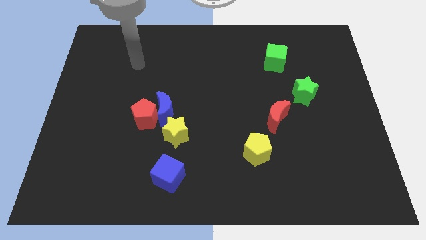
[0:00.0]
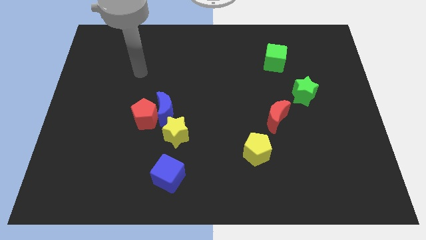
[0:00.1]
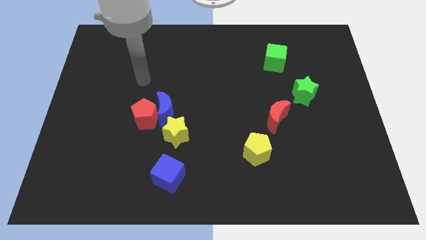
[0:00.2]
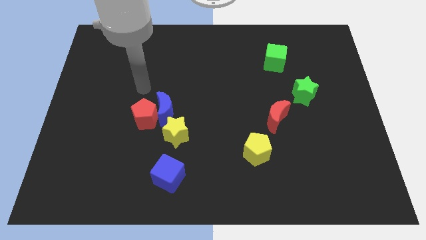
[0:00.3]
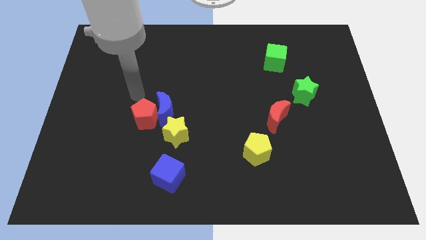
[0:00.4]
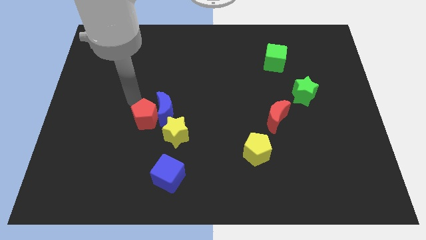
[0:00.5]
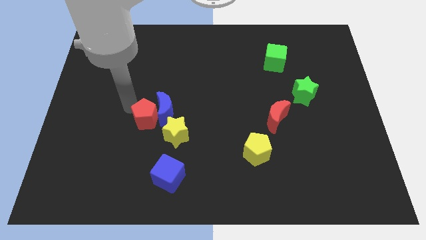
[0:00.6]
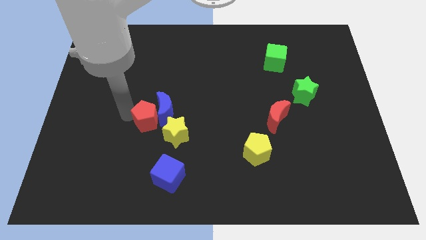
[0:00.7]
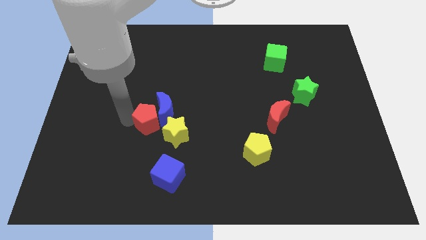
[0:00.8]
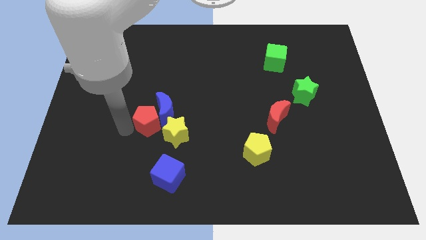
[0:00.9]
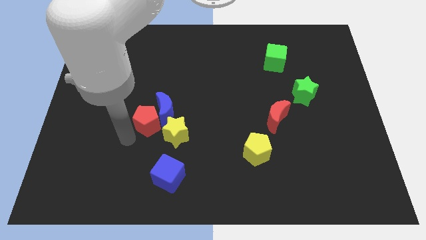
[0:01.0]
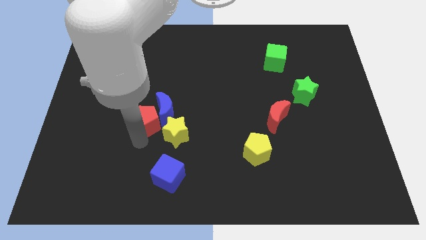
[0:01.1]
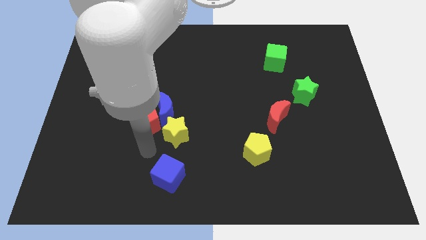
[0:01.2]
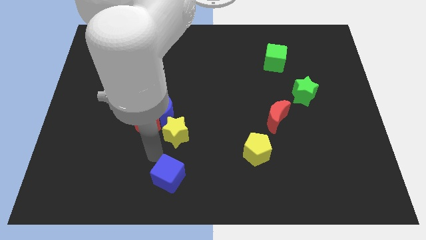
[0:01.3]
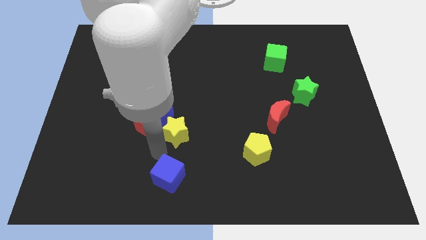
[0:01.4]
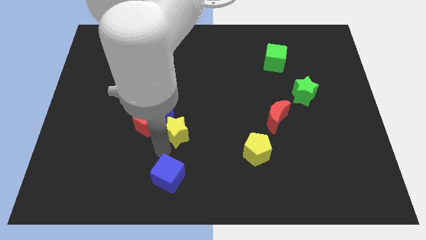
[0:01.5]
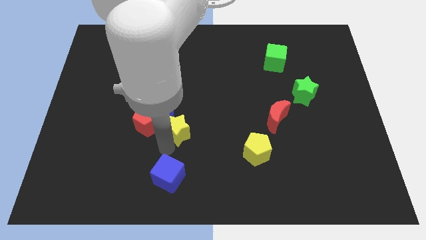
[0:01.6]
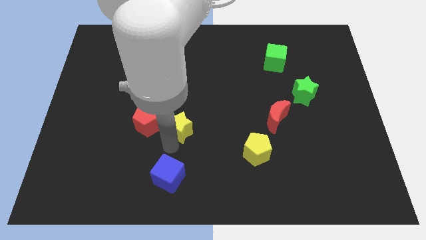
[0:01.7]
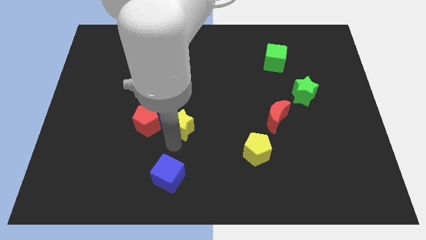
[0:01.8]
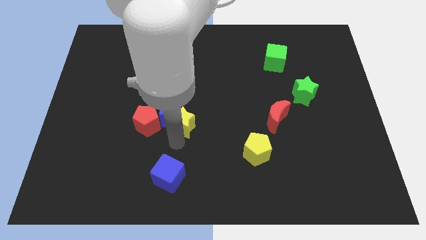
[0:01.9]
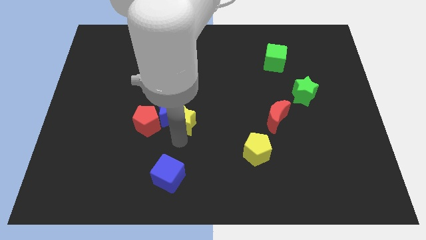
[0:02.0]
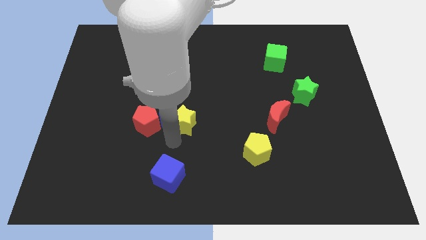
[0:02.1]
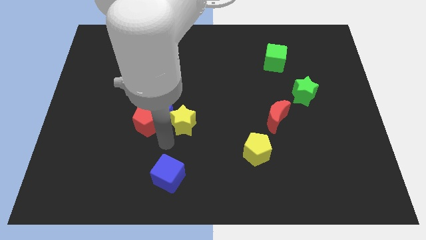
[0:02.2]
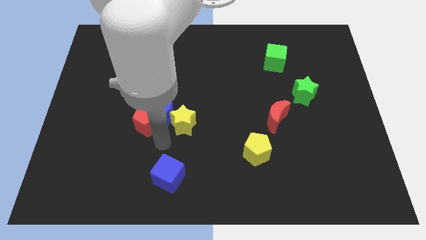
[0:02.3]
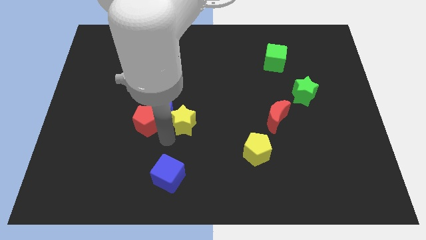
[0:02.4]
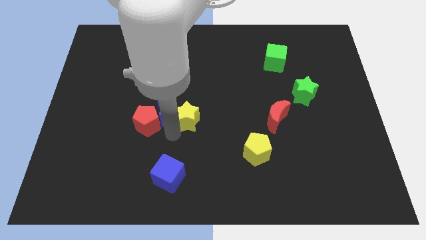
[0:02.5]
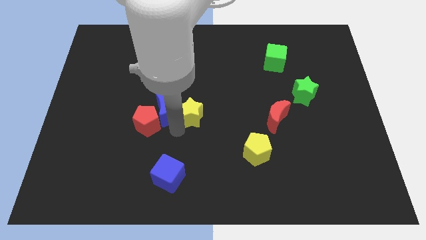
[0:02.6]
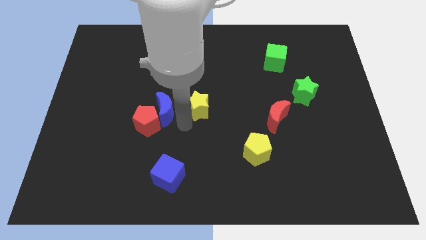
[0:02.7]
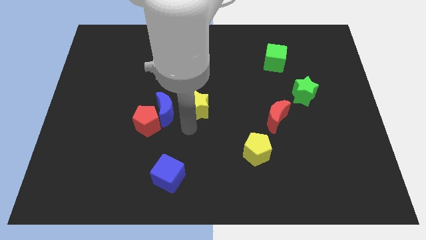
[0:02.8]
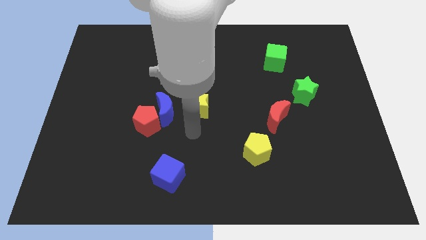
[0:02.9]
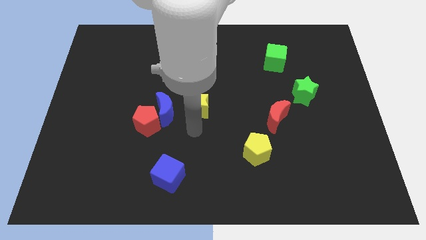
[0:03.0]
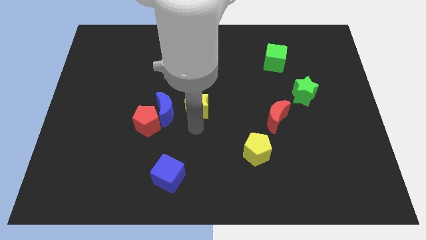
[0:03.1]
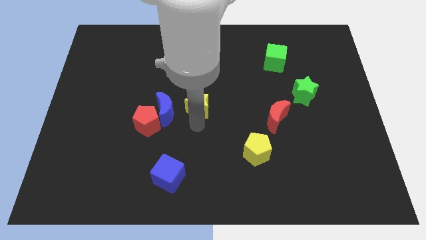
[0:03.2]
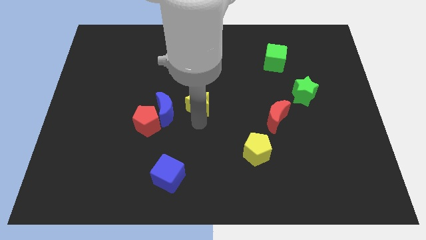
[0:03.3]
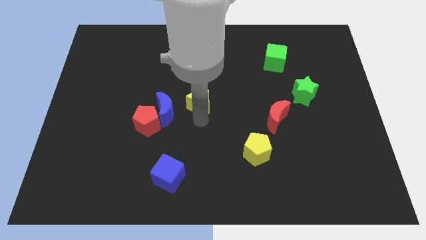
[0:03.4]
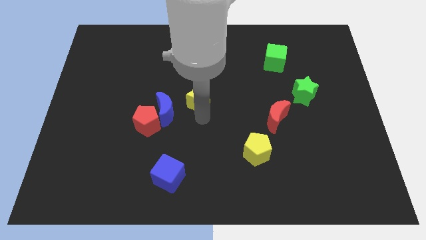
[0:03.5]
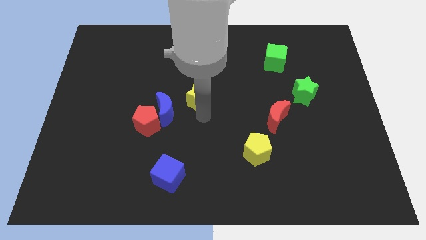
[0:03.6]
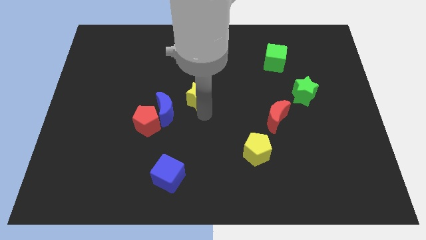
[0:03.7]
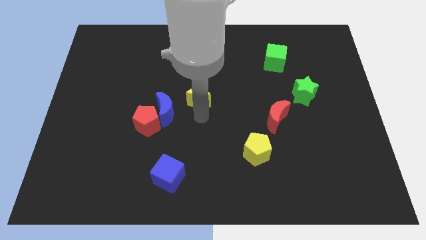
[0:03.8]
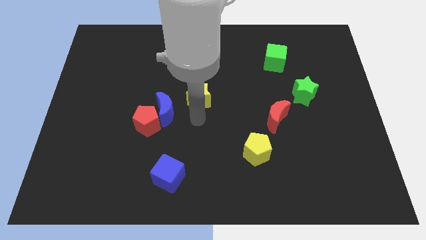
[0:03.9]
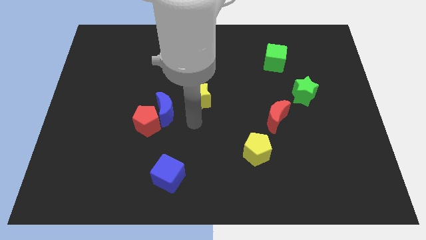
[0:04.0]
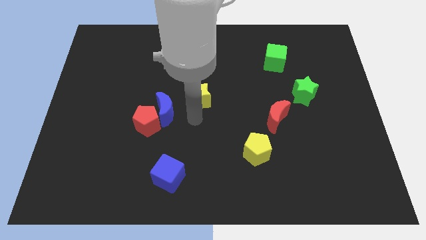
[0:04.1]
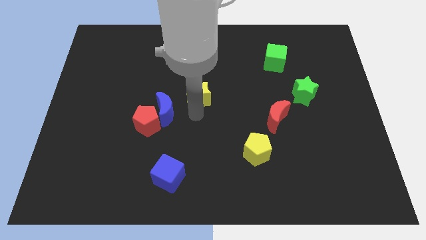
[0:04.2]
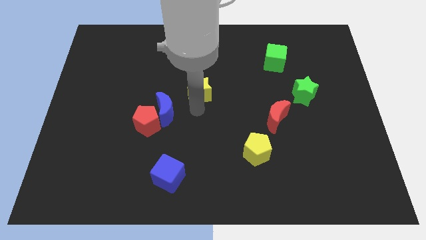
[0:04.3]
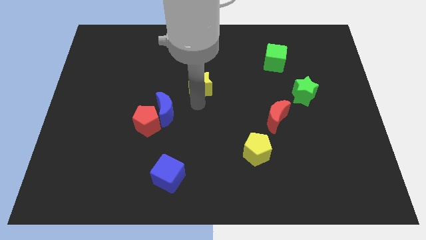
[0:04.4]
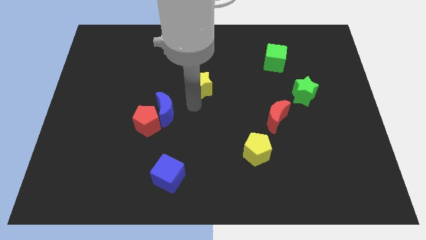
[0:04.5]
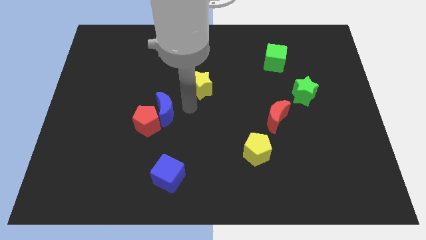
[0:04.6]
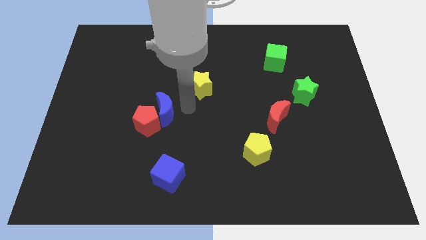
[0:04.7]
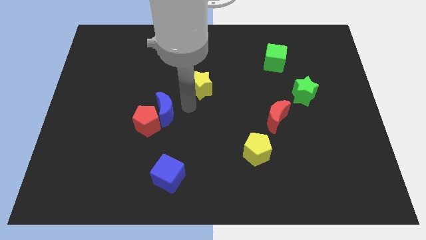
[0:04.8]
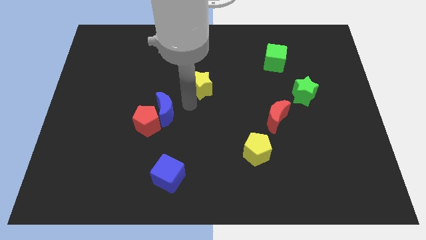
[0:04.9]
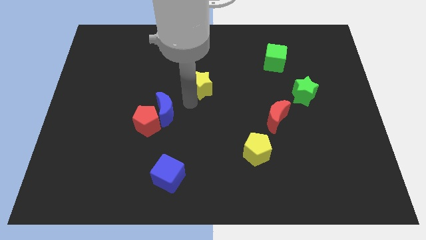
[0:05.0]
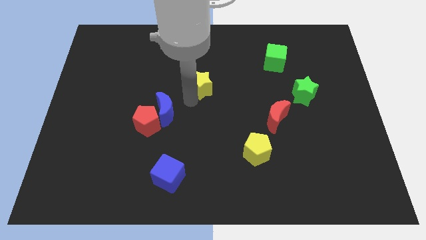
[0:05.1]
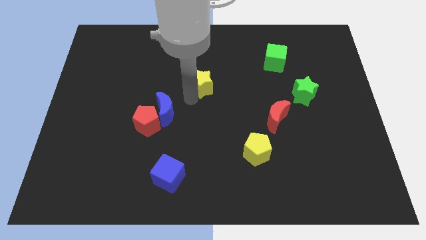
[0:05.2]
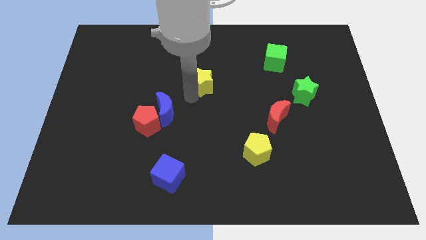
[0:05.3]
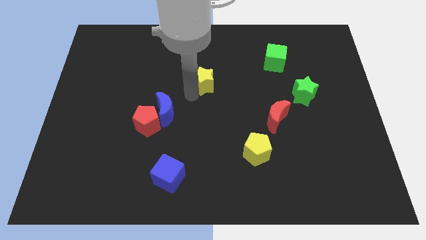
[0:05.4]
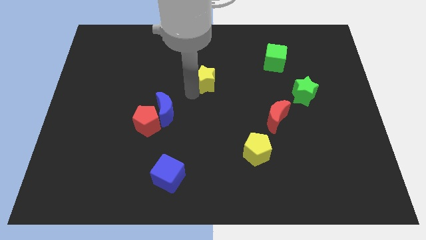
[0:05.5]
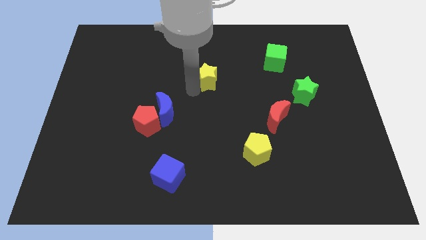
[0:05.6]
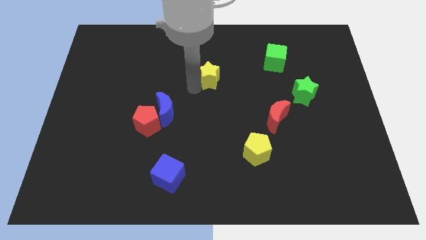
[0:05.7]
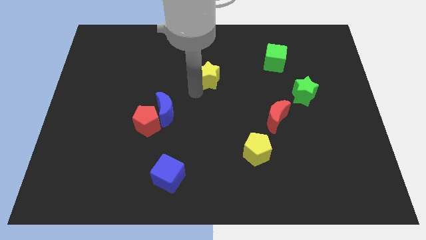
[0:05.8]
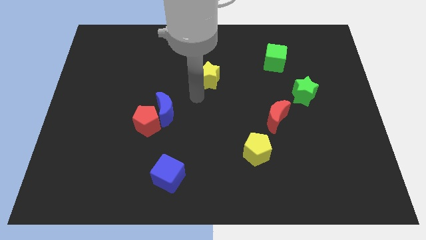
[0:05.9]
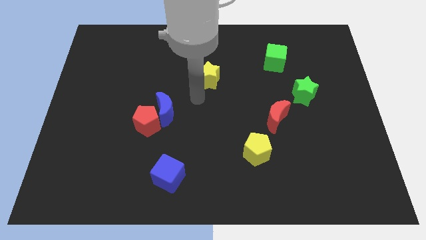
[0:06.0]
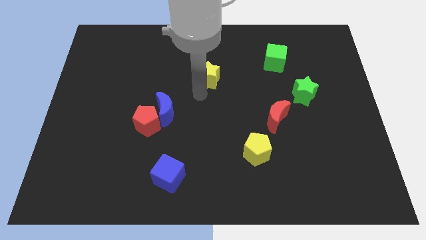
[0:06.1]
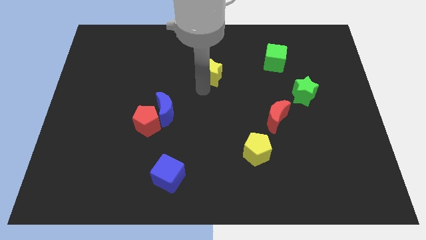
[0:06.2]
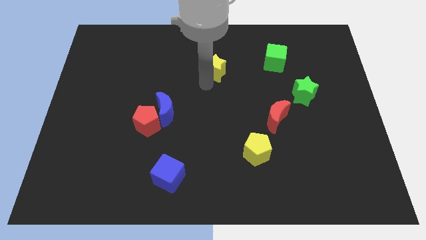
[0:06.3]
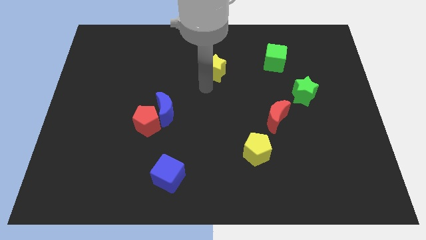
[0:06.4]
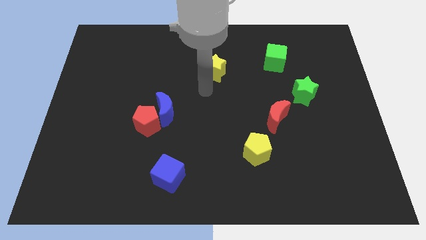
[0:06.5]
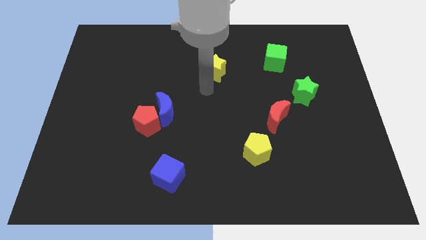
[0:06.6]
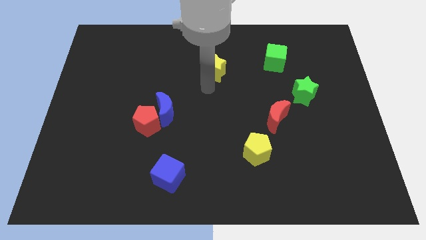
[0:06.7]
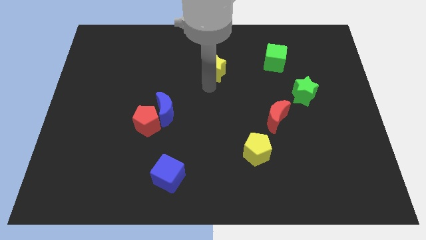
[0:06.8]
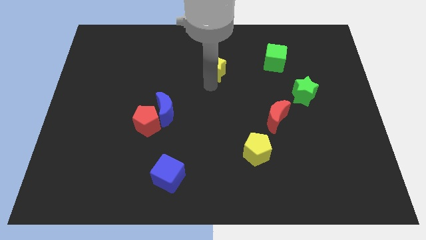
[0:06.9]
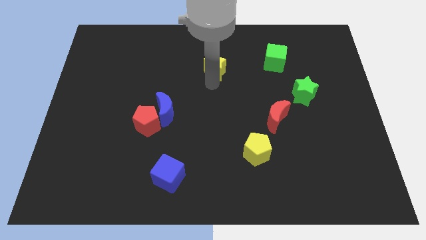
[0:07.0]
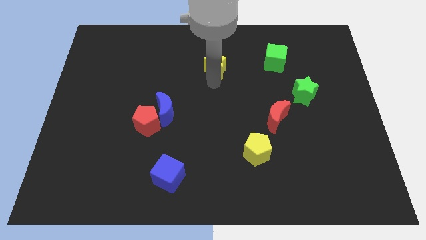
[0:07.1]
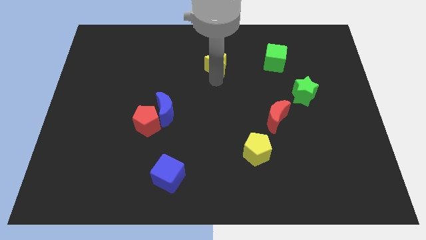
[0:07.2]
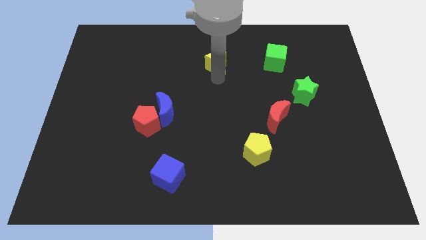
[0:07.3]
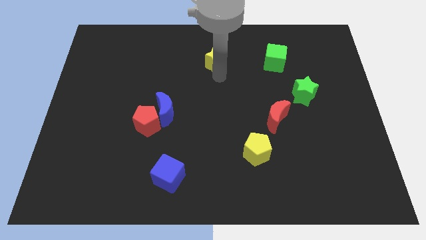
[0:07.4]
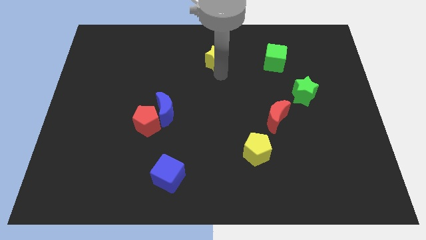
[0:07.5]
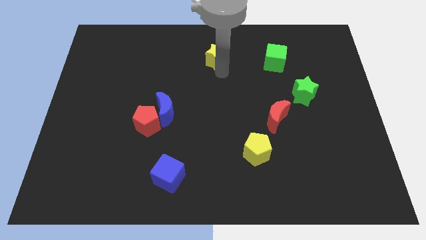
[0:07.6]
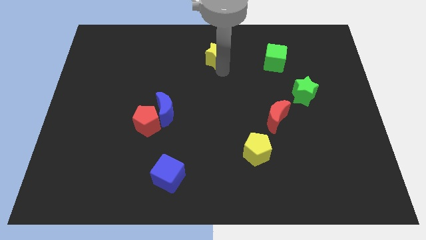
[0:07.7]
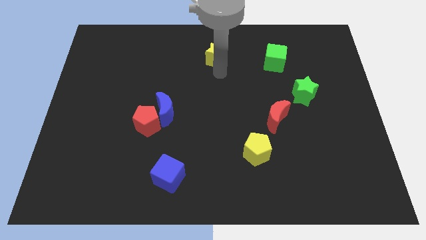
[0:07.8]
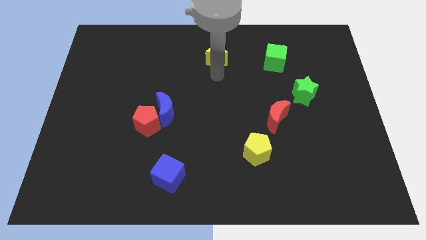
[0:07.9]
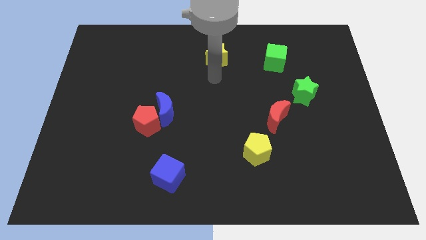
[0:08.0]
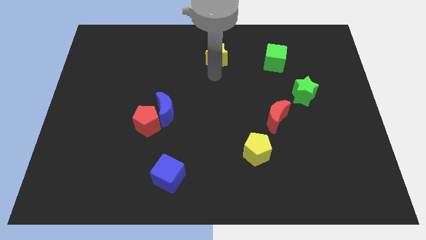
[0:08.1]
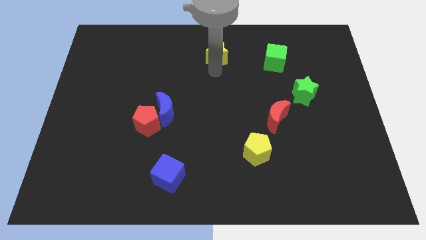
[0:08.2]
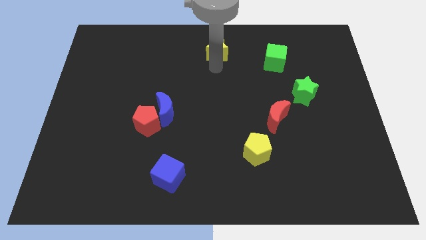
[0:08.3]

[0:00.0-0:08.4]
push the yellow star to the top side
